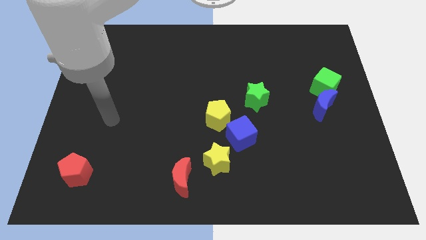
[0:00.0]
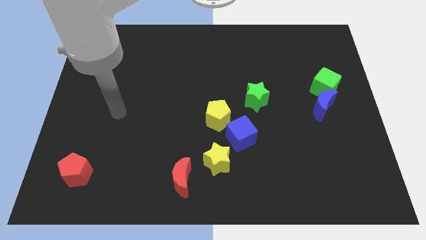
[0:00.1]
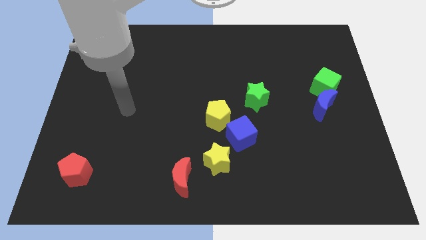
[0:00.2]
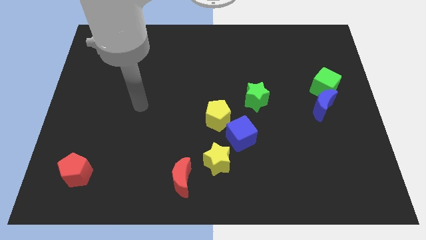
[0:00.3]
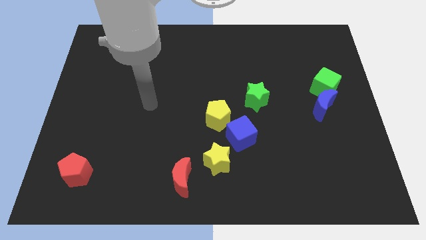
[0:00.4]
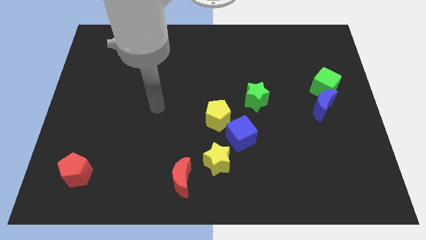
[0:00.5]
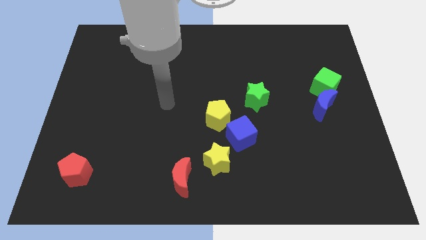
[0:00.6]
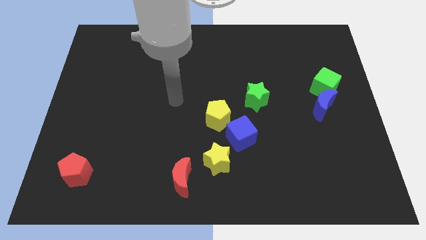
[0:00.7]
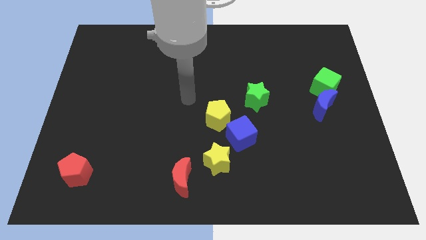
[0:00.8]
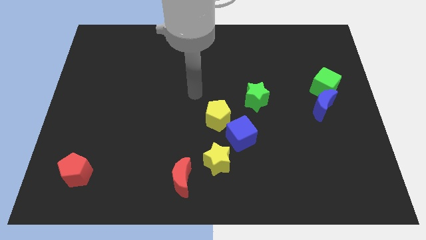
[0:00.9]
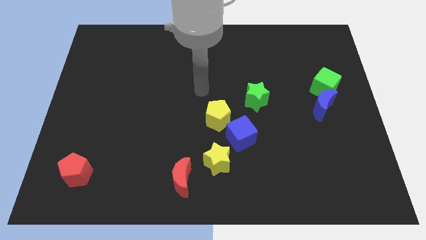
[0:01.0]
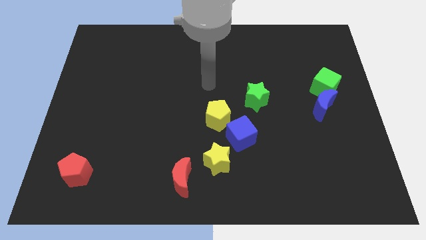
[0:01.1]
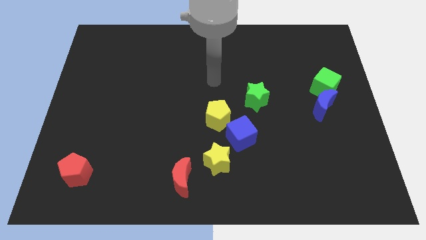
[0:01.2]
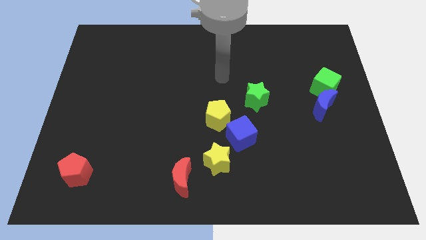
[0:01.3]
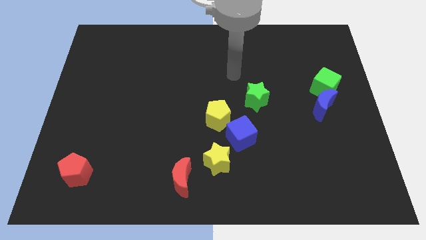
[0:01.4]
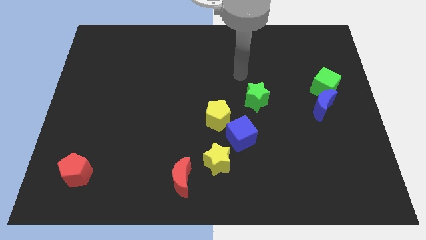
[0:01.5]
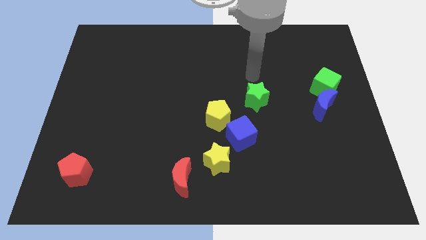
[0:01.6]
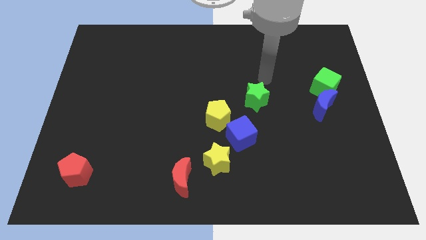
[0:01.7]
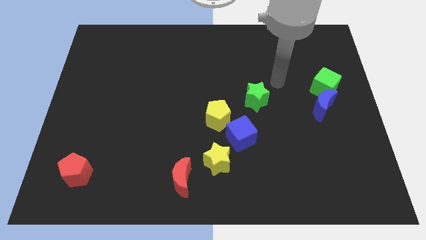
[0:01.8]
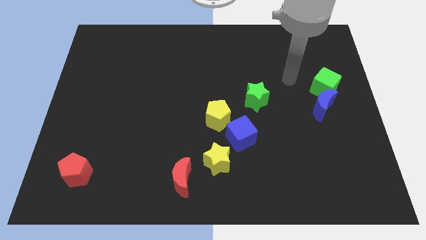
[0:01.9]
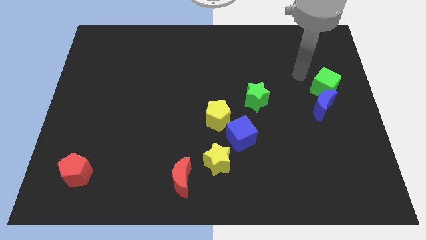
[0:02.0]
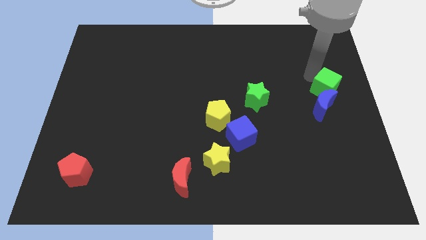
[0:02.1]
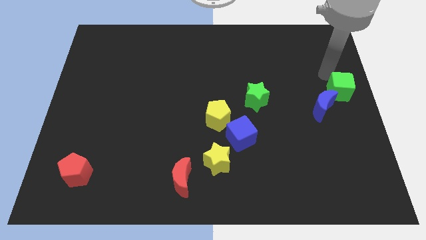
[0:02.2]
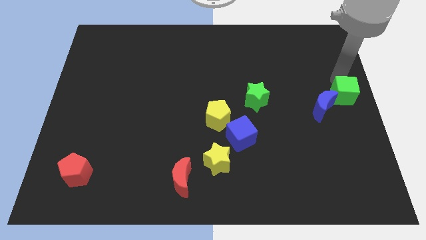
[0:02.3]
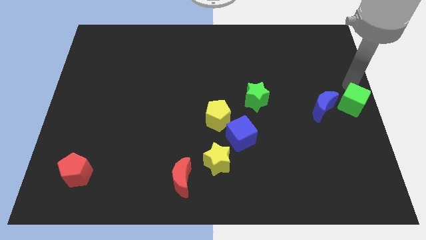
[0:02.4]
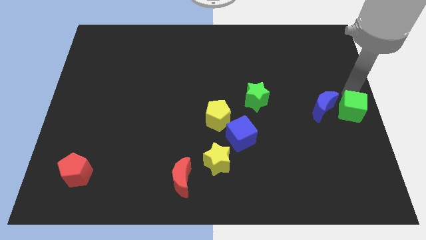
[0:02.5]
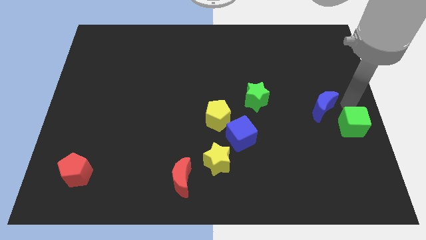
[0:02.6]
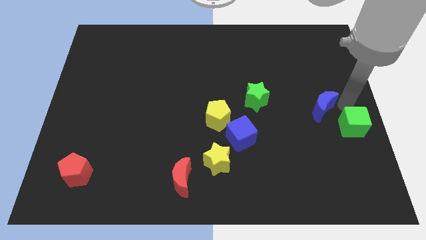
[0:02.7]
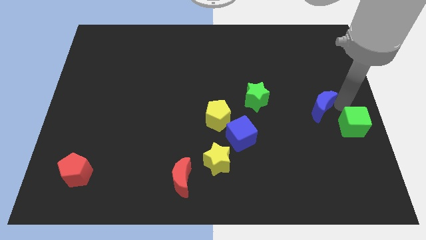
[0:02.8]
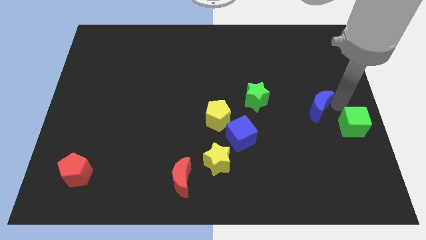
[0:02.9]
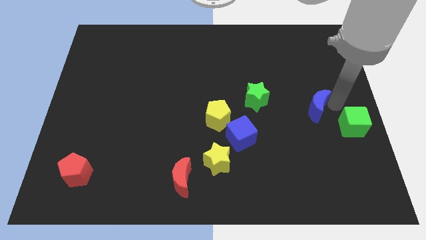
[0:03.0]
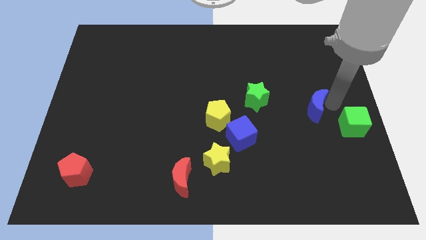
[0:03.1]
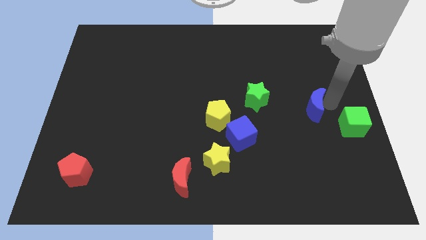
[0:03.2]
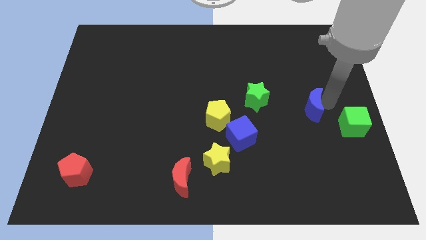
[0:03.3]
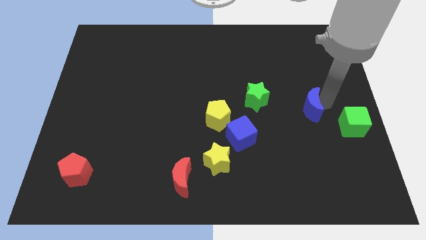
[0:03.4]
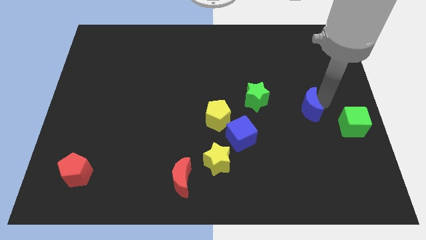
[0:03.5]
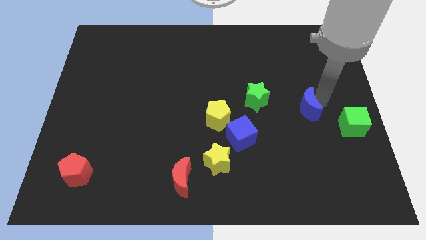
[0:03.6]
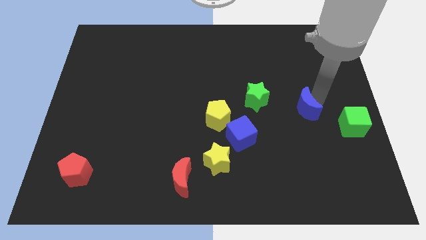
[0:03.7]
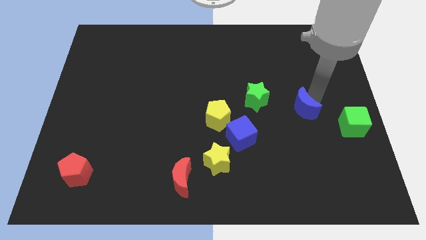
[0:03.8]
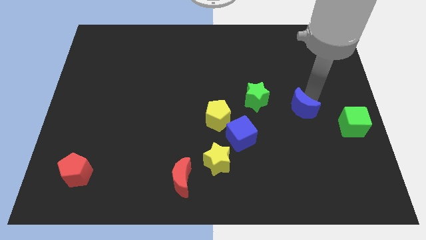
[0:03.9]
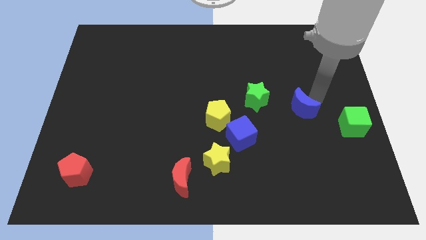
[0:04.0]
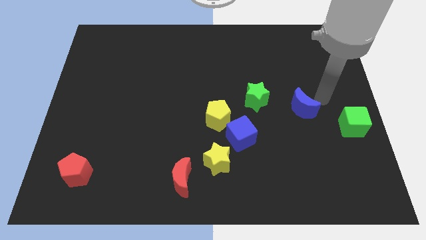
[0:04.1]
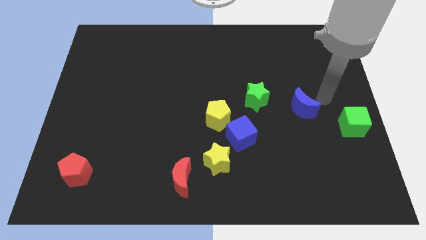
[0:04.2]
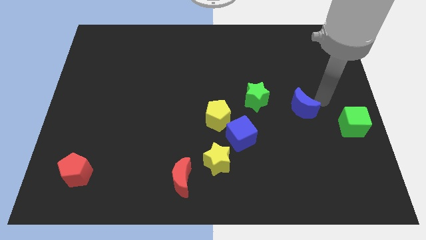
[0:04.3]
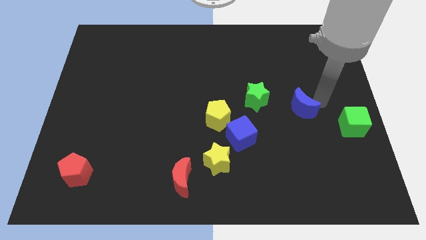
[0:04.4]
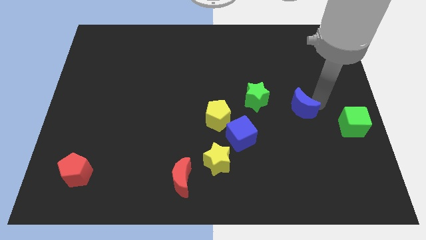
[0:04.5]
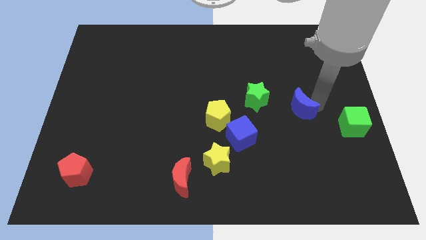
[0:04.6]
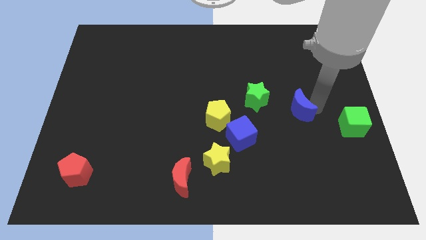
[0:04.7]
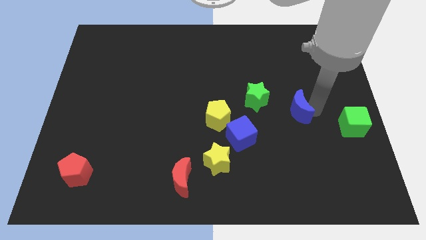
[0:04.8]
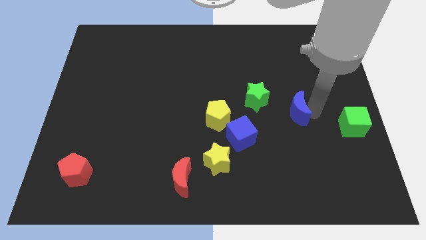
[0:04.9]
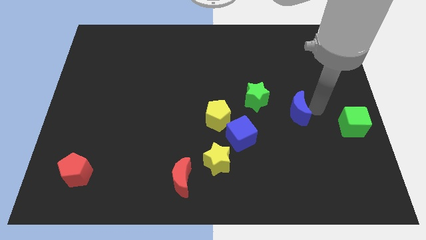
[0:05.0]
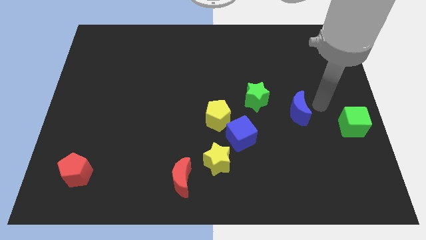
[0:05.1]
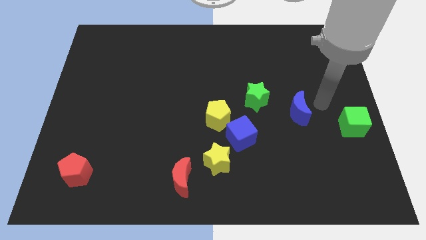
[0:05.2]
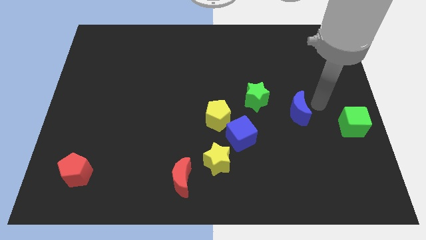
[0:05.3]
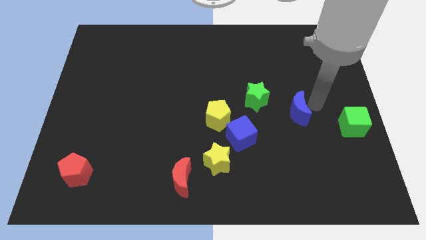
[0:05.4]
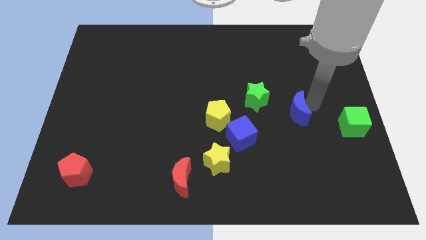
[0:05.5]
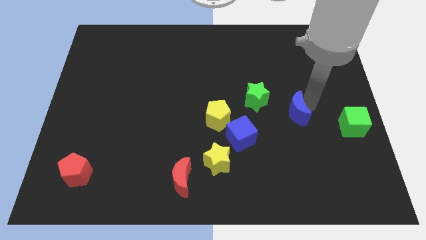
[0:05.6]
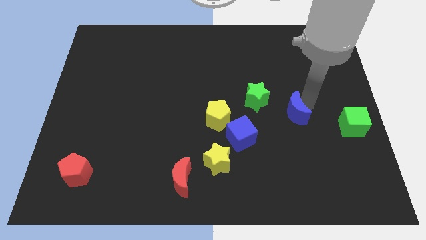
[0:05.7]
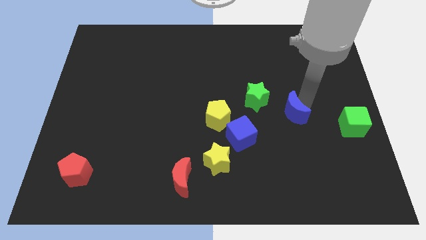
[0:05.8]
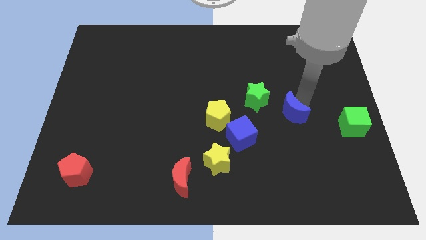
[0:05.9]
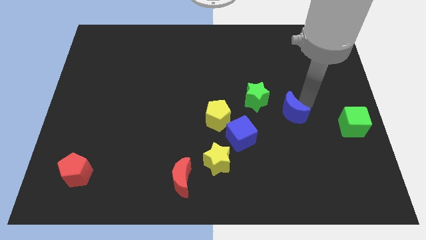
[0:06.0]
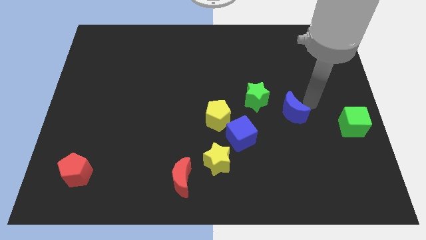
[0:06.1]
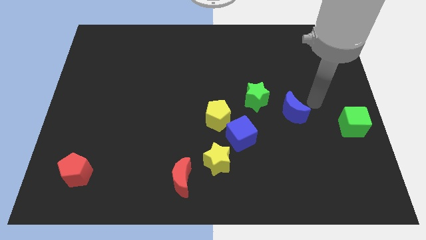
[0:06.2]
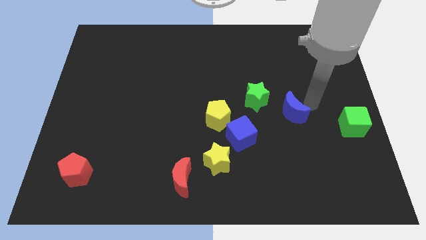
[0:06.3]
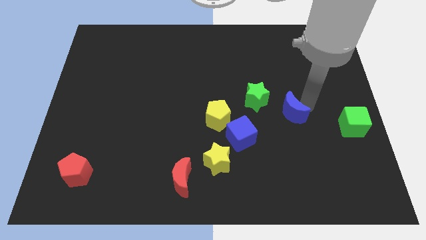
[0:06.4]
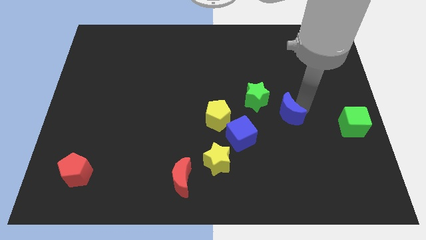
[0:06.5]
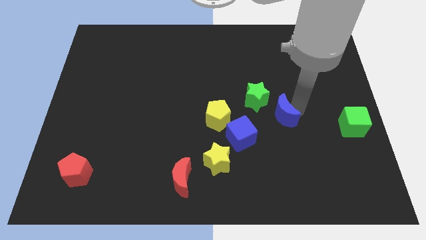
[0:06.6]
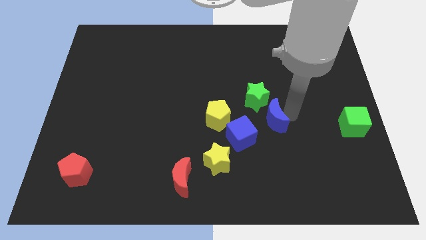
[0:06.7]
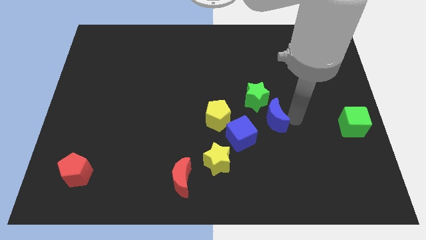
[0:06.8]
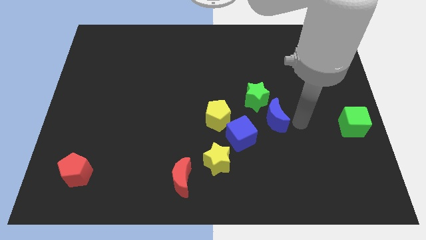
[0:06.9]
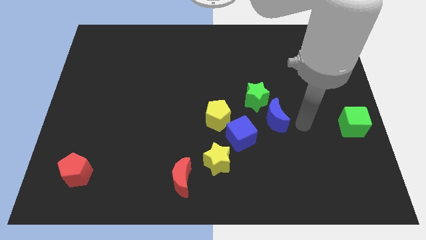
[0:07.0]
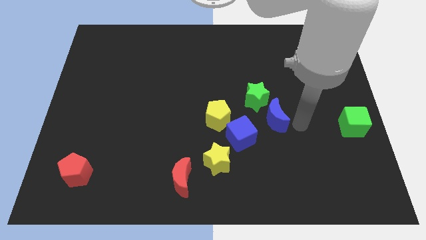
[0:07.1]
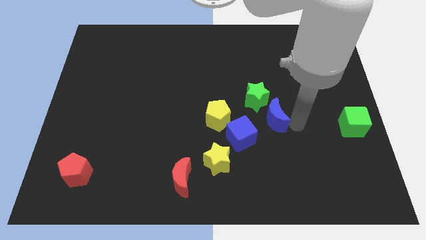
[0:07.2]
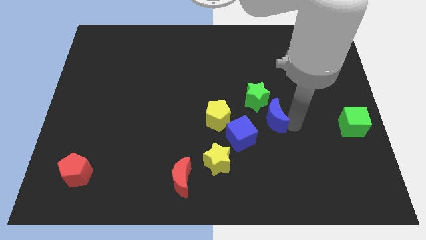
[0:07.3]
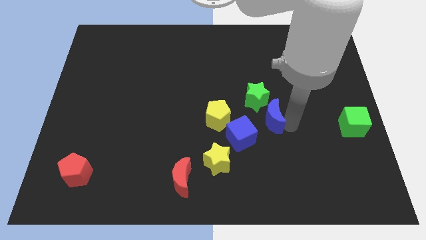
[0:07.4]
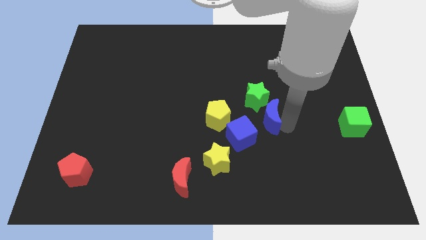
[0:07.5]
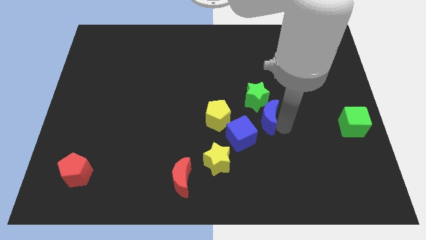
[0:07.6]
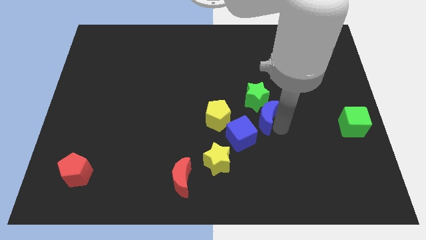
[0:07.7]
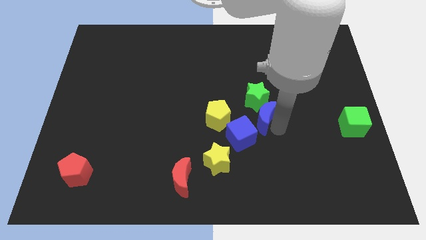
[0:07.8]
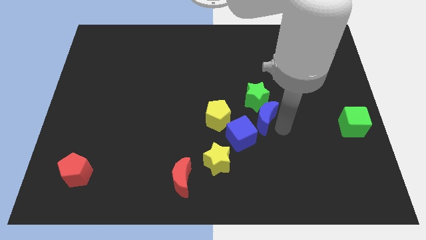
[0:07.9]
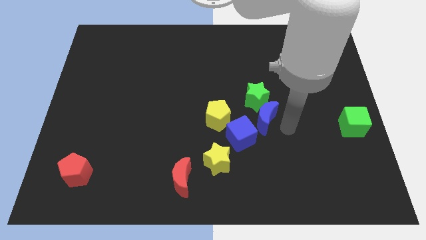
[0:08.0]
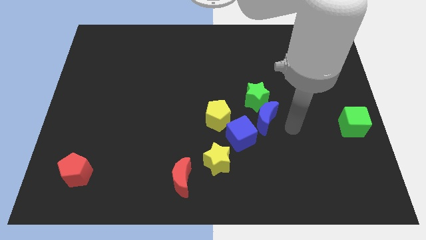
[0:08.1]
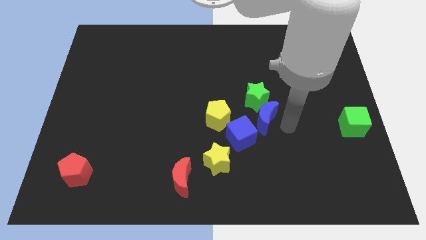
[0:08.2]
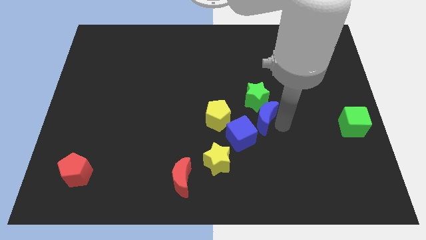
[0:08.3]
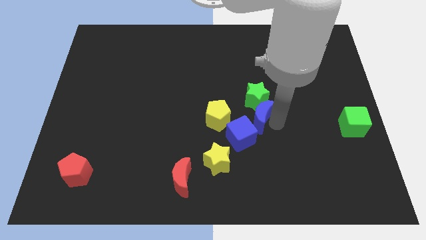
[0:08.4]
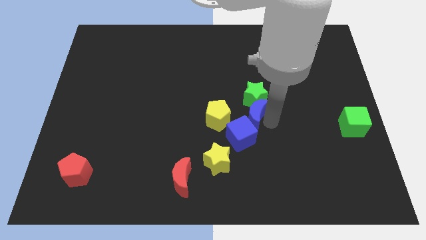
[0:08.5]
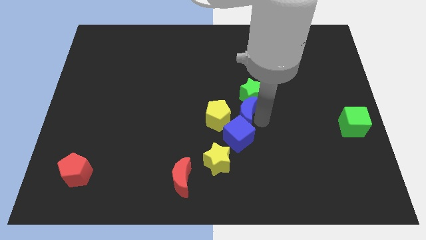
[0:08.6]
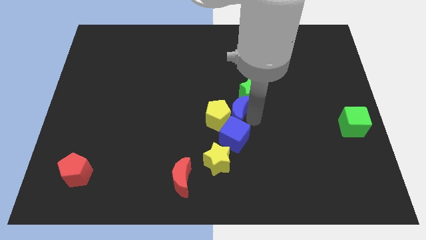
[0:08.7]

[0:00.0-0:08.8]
move the blue moon left
